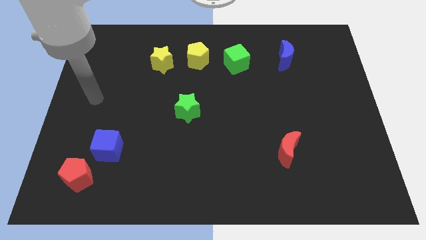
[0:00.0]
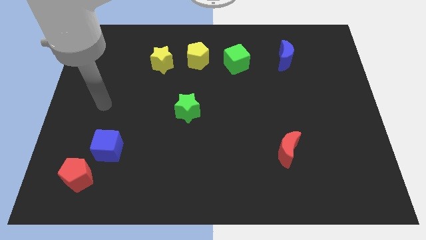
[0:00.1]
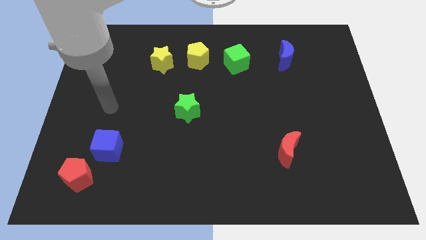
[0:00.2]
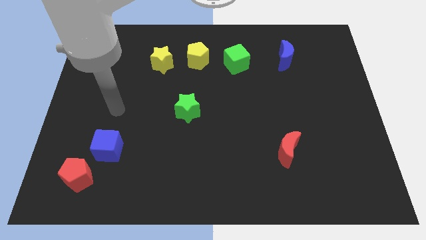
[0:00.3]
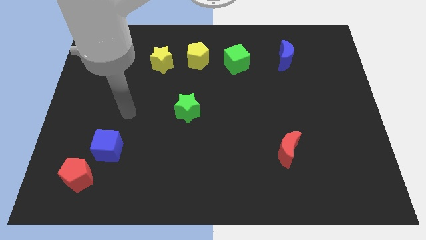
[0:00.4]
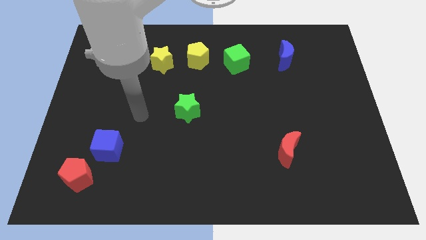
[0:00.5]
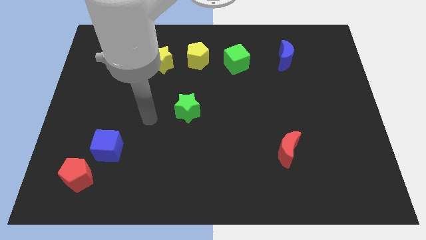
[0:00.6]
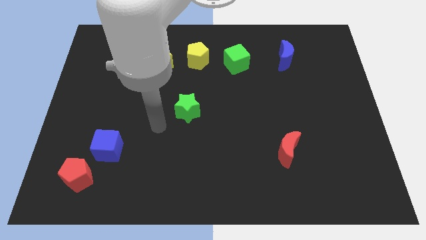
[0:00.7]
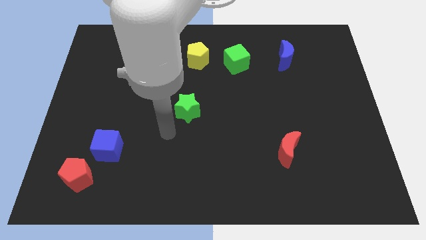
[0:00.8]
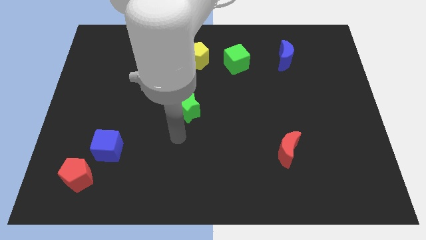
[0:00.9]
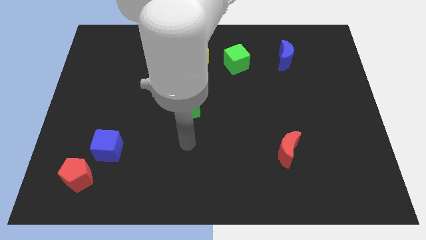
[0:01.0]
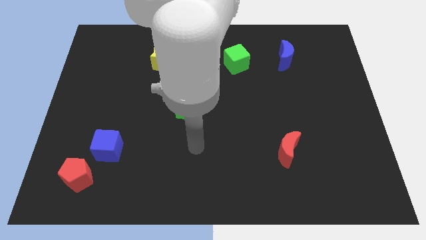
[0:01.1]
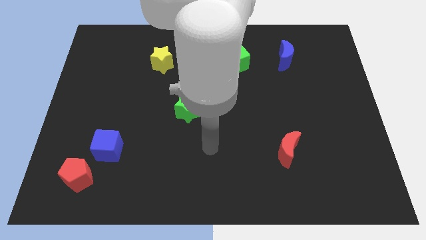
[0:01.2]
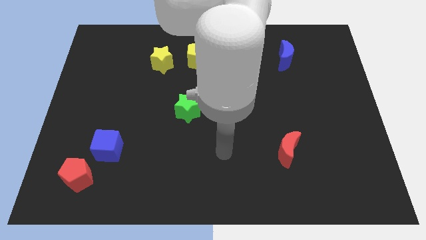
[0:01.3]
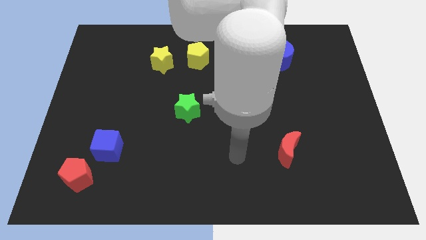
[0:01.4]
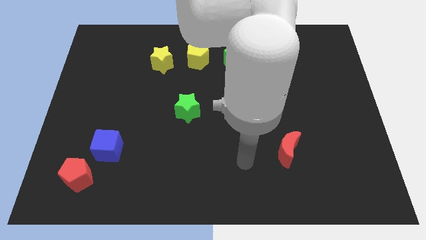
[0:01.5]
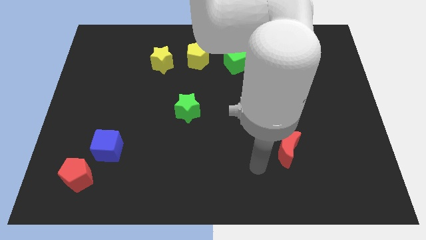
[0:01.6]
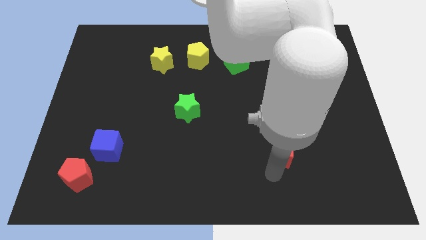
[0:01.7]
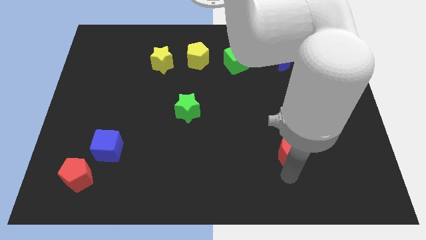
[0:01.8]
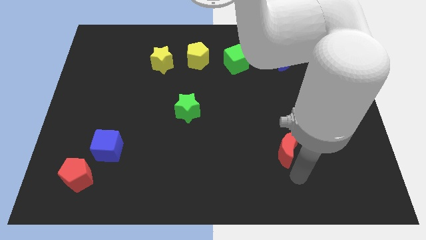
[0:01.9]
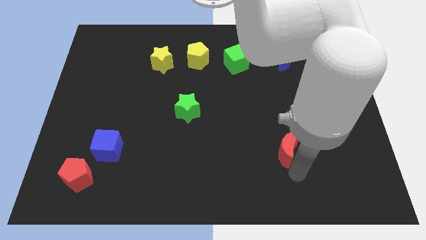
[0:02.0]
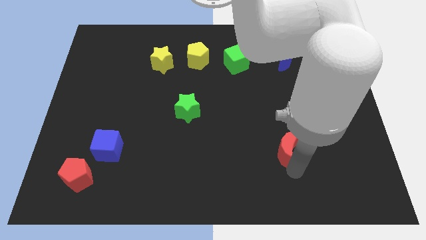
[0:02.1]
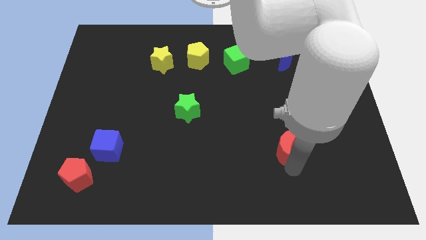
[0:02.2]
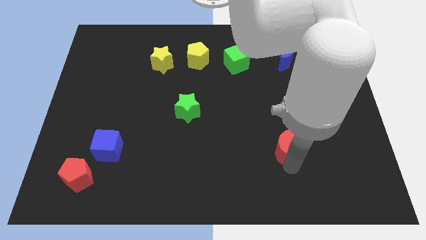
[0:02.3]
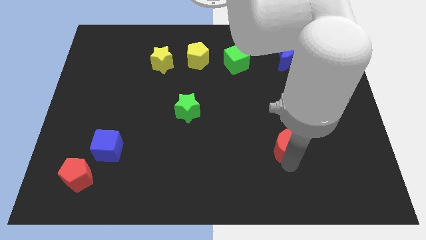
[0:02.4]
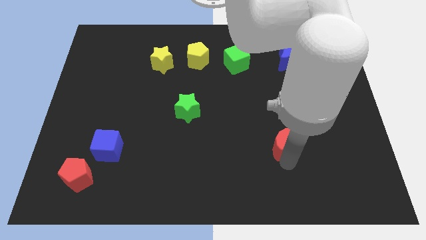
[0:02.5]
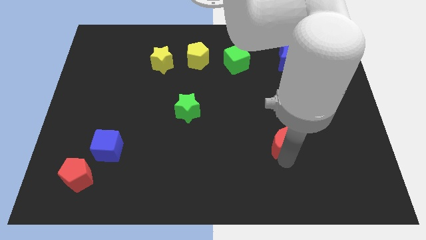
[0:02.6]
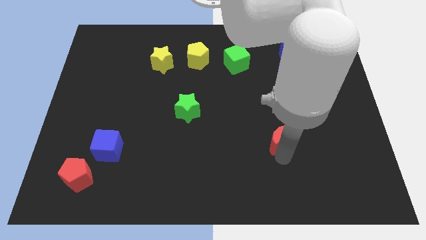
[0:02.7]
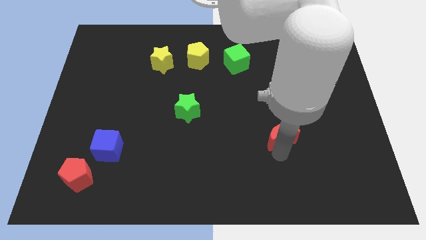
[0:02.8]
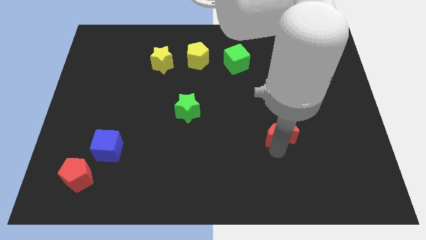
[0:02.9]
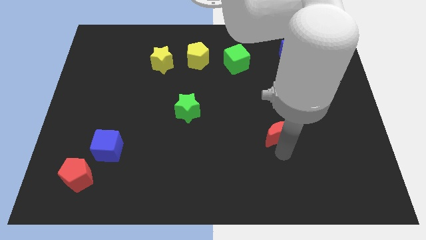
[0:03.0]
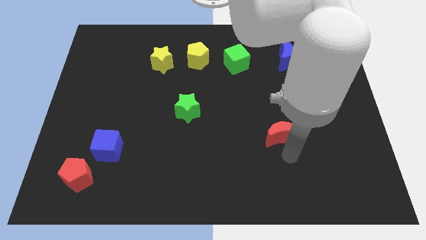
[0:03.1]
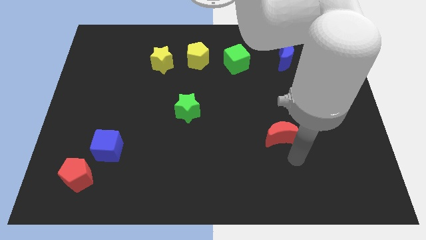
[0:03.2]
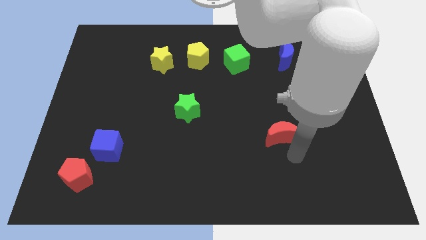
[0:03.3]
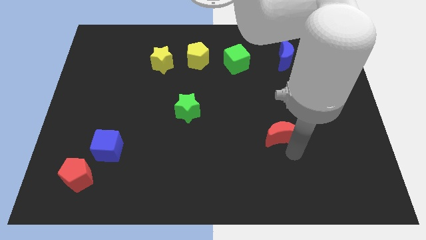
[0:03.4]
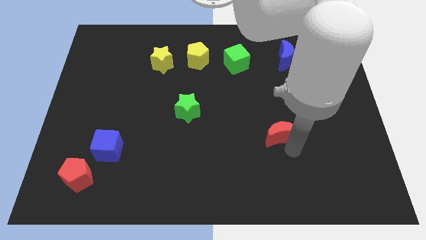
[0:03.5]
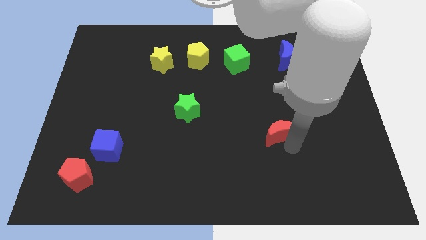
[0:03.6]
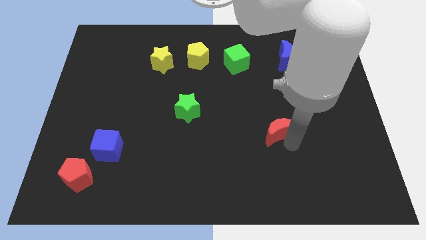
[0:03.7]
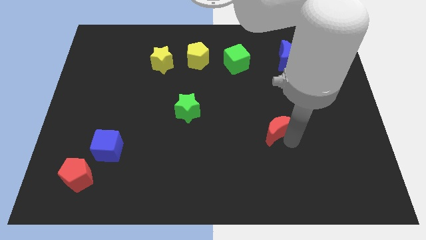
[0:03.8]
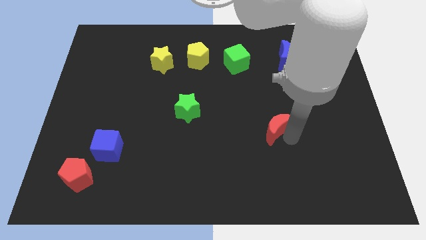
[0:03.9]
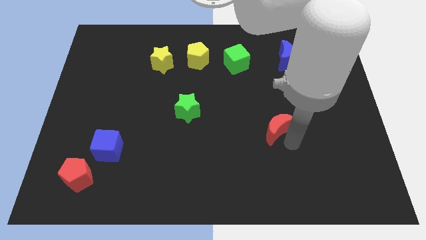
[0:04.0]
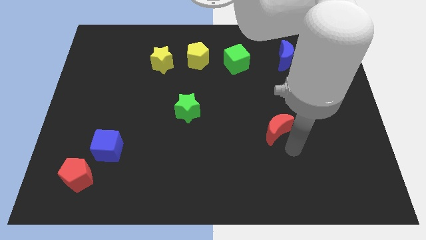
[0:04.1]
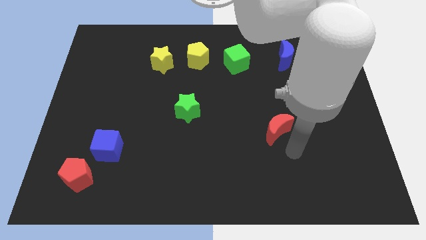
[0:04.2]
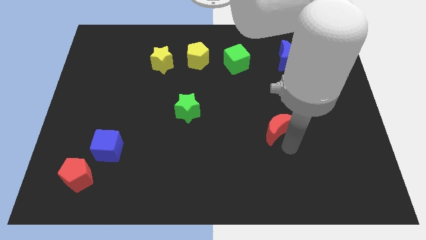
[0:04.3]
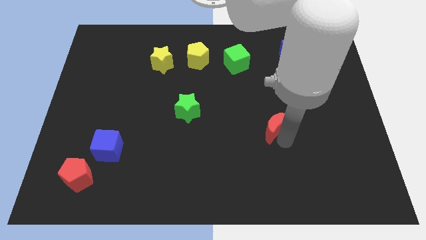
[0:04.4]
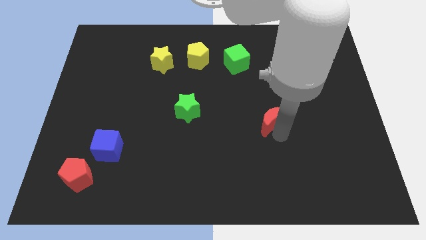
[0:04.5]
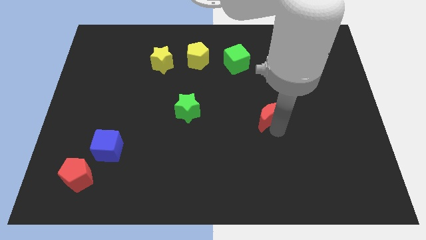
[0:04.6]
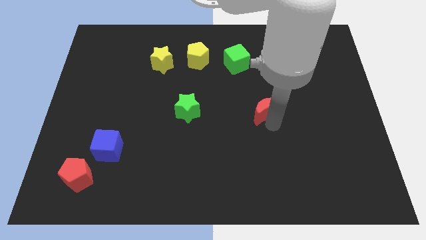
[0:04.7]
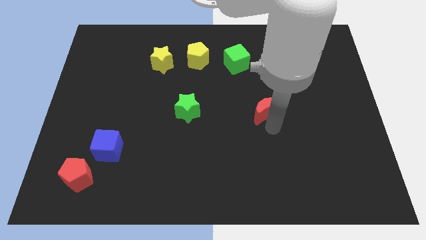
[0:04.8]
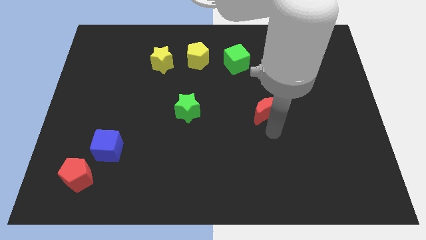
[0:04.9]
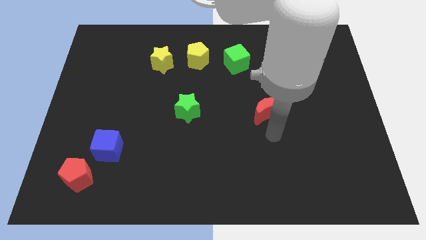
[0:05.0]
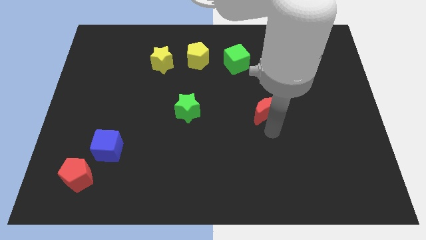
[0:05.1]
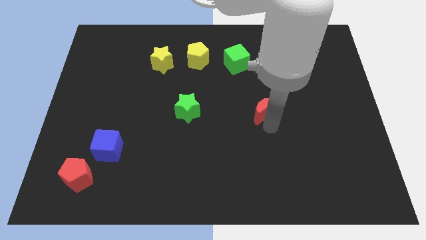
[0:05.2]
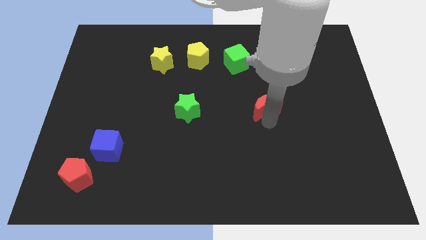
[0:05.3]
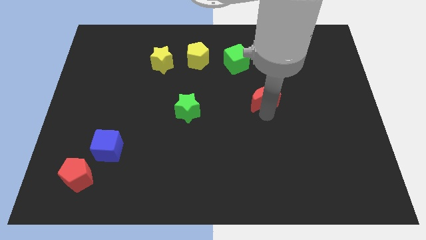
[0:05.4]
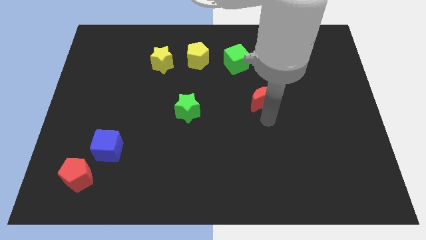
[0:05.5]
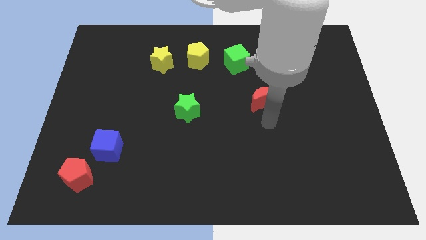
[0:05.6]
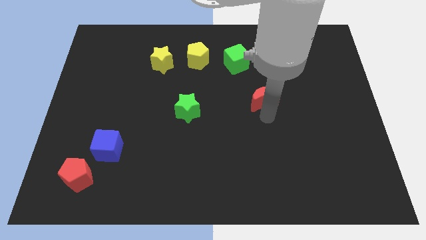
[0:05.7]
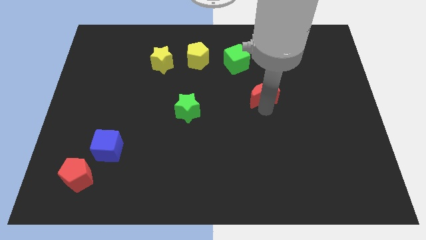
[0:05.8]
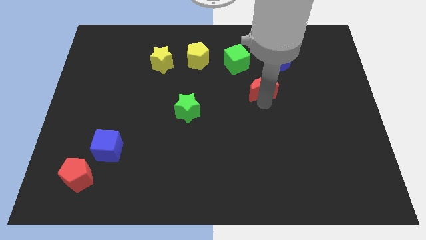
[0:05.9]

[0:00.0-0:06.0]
move the red moon to the bottom right side of the green cube

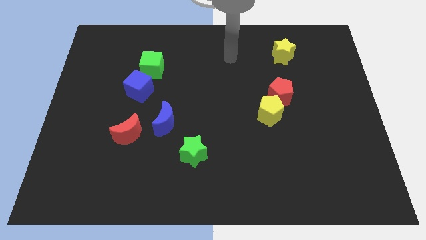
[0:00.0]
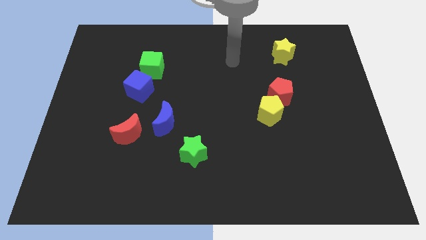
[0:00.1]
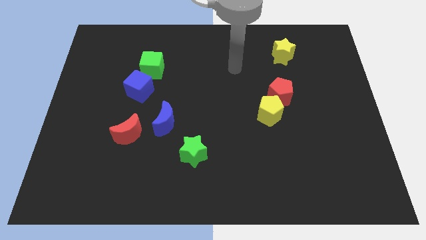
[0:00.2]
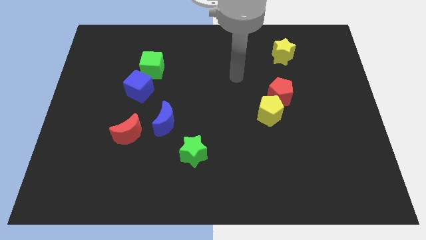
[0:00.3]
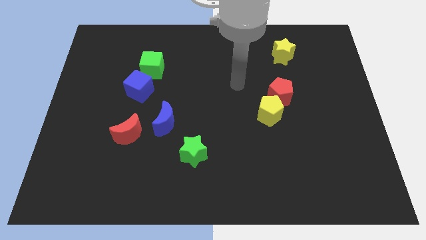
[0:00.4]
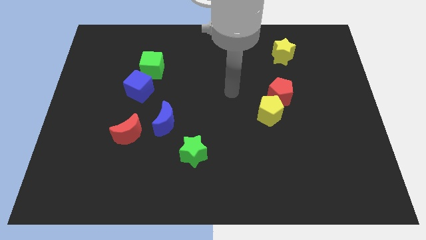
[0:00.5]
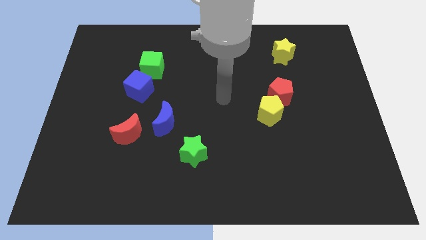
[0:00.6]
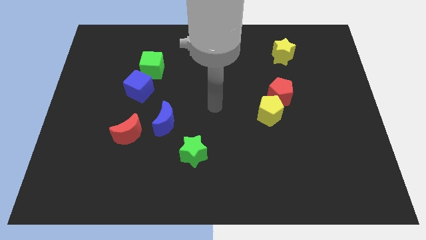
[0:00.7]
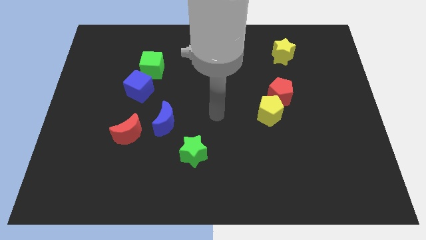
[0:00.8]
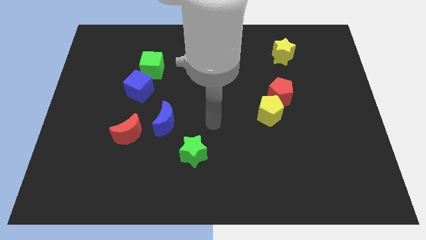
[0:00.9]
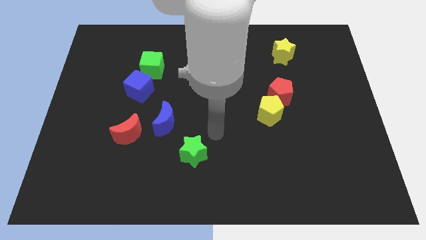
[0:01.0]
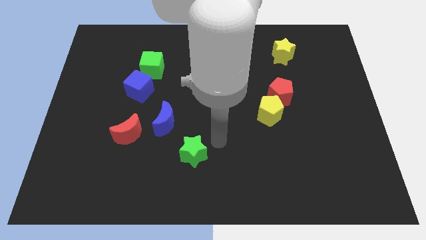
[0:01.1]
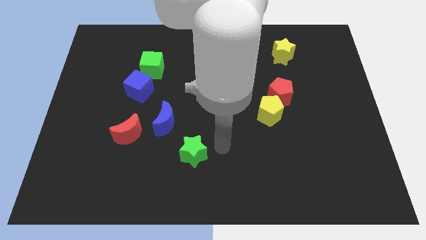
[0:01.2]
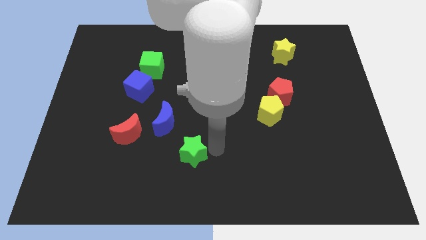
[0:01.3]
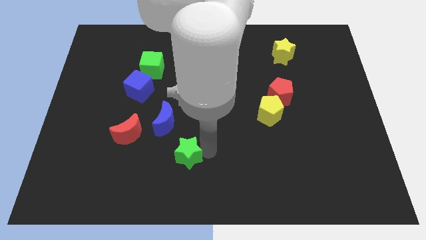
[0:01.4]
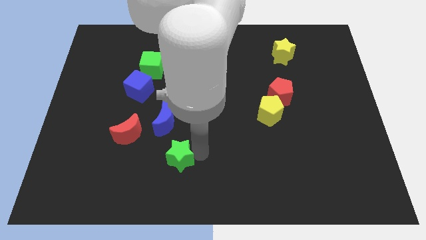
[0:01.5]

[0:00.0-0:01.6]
move the green star below the blue moon
